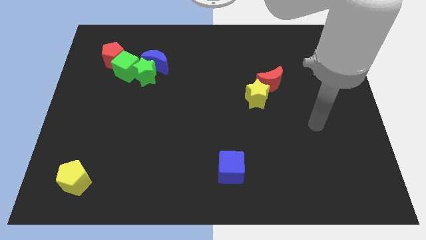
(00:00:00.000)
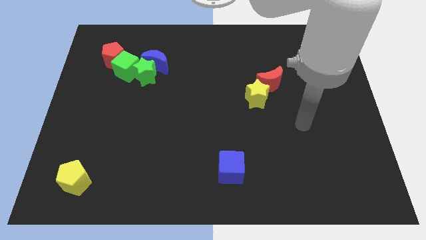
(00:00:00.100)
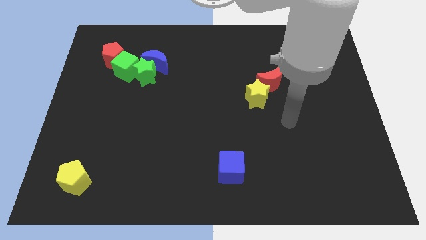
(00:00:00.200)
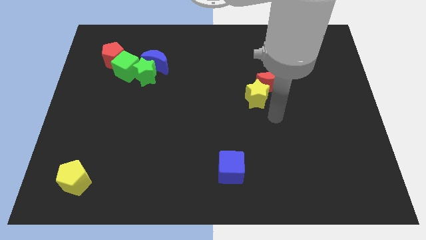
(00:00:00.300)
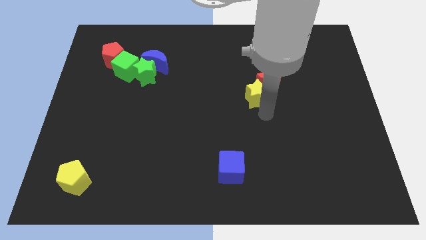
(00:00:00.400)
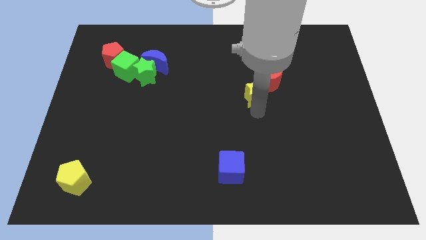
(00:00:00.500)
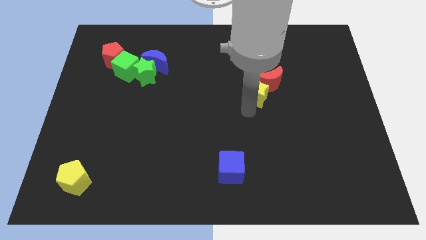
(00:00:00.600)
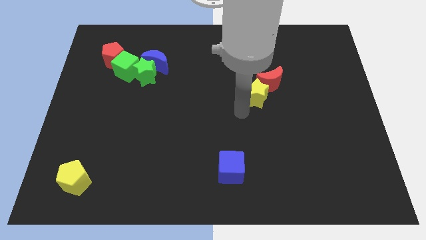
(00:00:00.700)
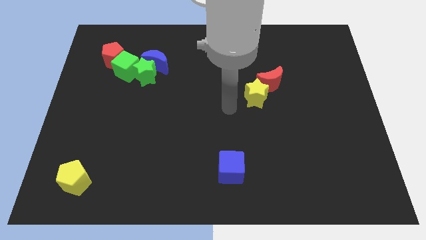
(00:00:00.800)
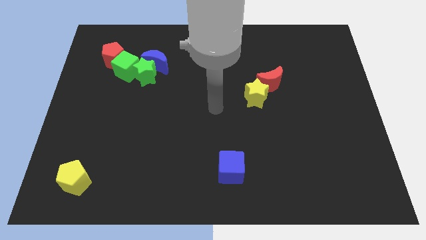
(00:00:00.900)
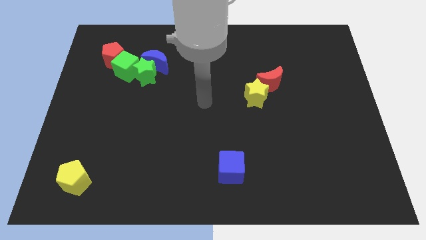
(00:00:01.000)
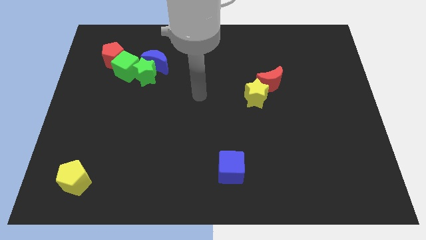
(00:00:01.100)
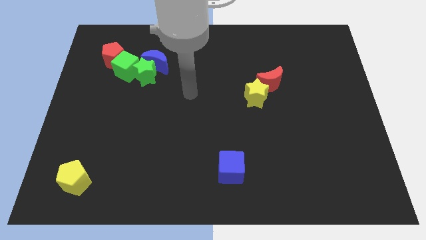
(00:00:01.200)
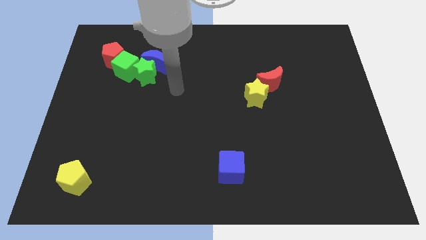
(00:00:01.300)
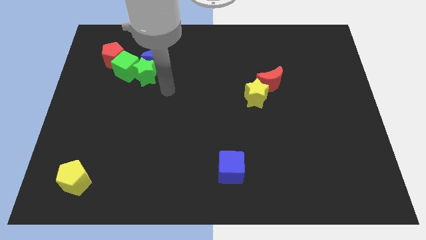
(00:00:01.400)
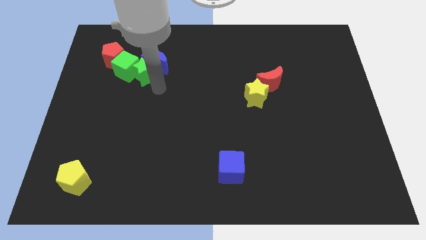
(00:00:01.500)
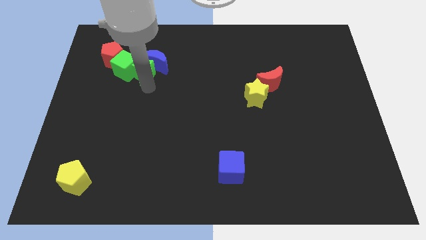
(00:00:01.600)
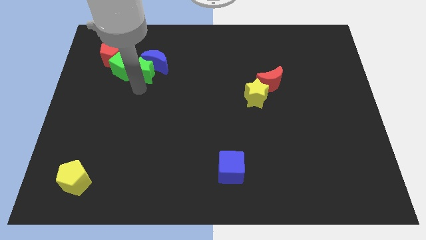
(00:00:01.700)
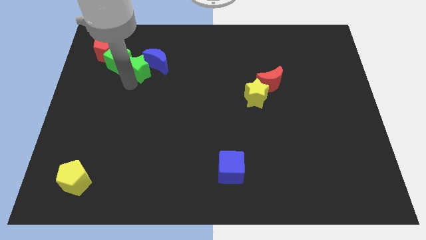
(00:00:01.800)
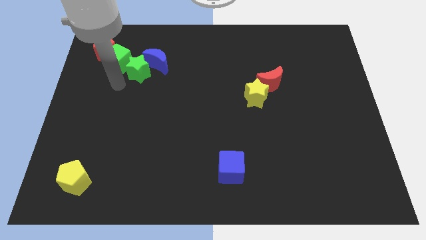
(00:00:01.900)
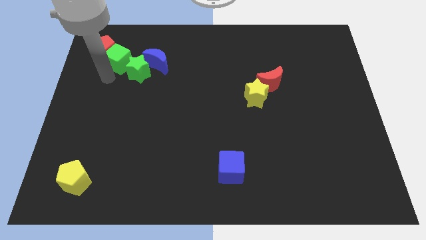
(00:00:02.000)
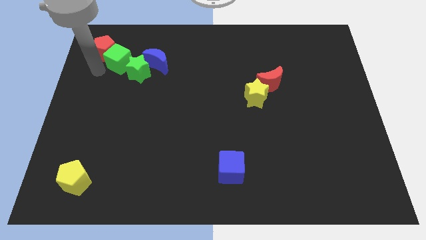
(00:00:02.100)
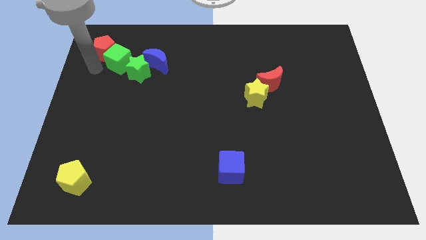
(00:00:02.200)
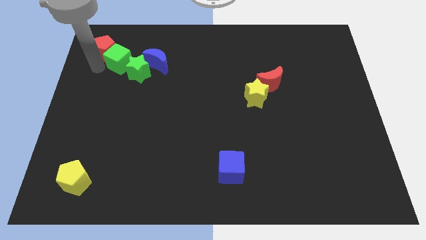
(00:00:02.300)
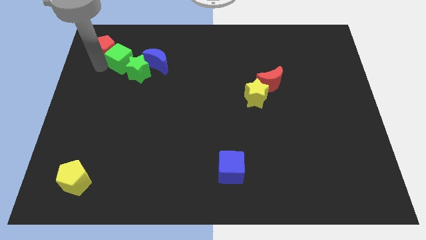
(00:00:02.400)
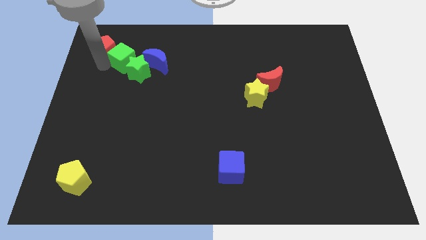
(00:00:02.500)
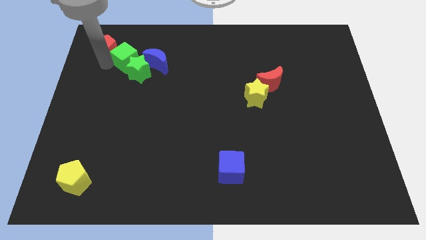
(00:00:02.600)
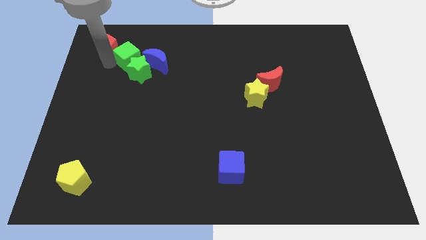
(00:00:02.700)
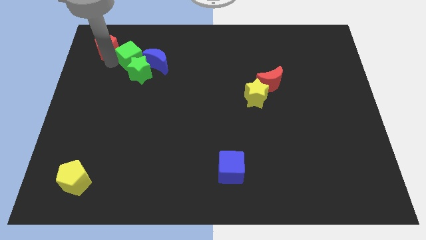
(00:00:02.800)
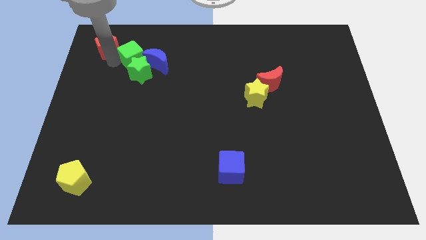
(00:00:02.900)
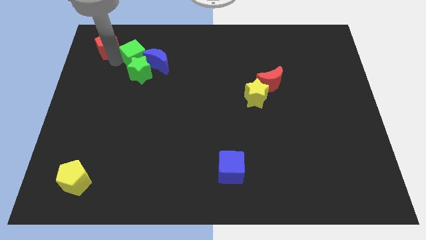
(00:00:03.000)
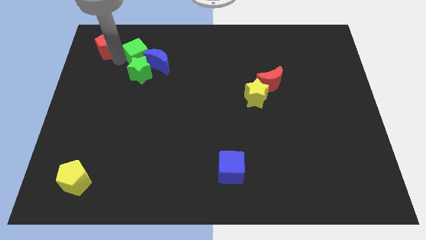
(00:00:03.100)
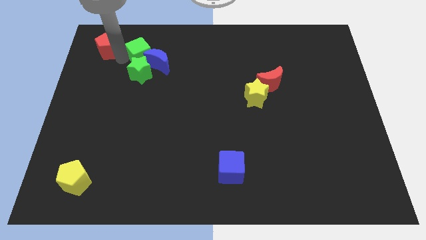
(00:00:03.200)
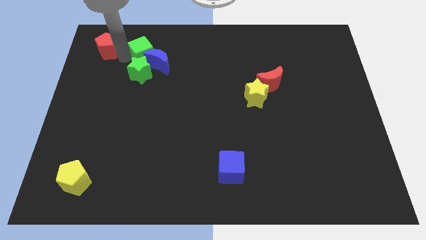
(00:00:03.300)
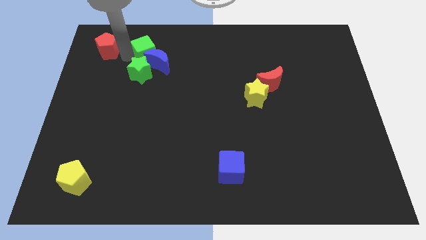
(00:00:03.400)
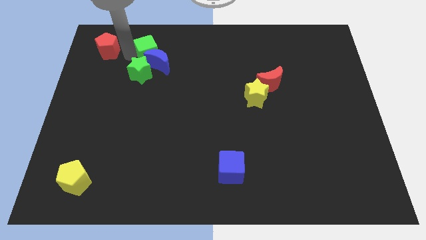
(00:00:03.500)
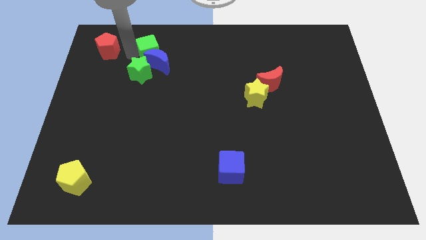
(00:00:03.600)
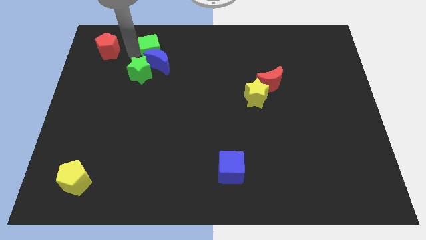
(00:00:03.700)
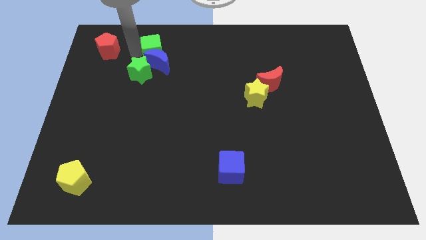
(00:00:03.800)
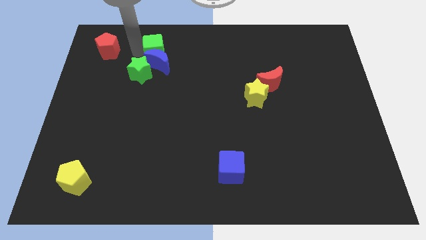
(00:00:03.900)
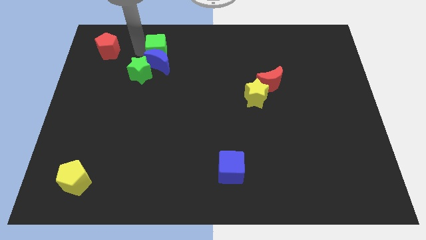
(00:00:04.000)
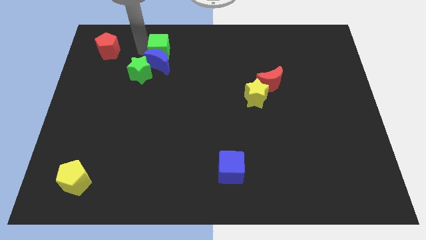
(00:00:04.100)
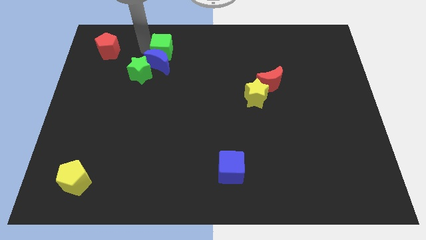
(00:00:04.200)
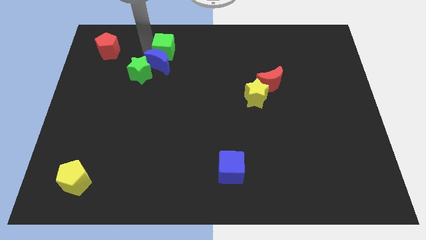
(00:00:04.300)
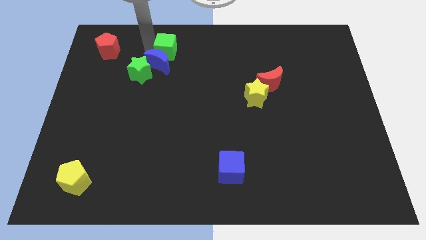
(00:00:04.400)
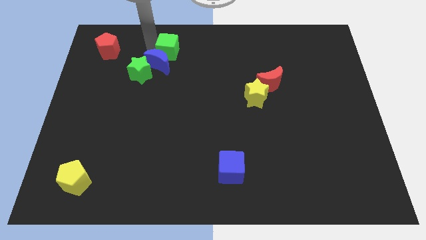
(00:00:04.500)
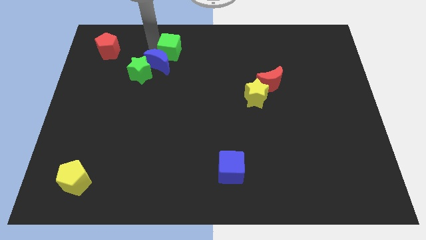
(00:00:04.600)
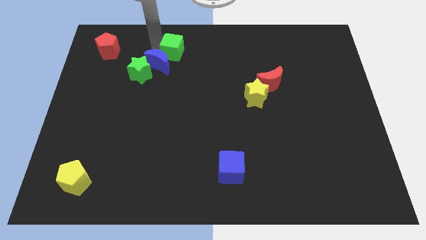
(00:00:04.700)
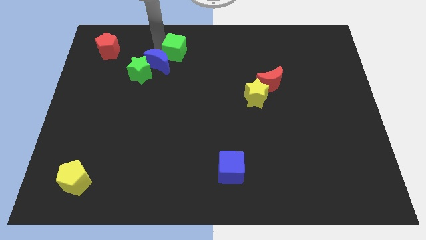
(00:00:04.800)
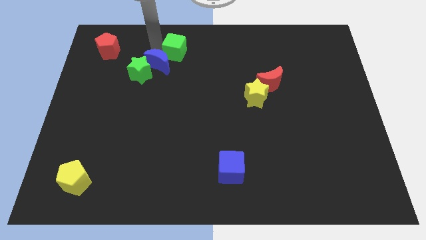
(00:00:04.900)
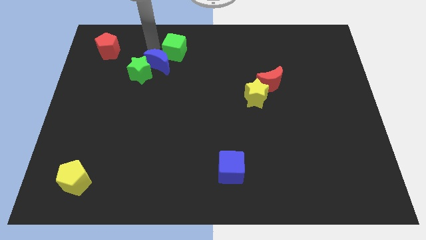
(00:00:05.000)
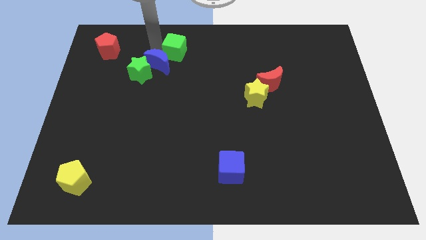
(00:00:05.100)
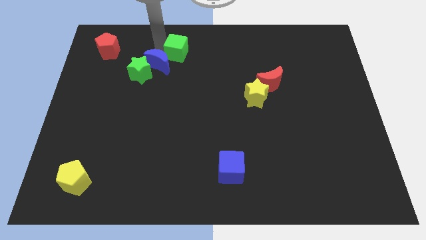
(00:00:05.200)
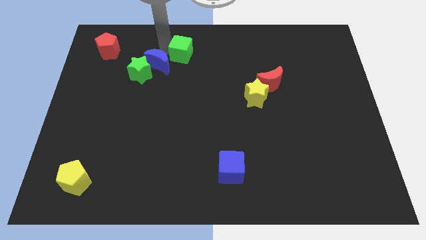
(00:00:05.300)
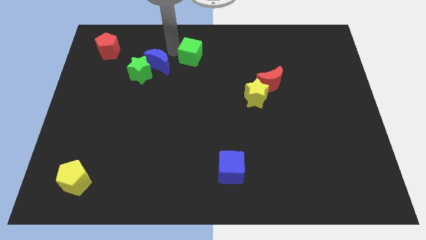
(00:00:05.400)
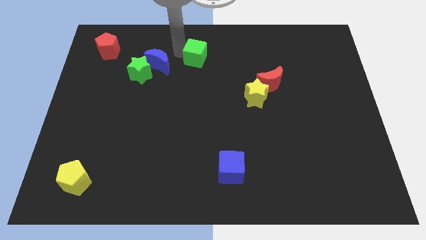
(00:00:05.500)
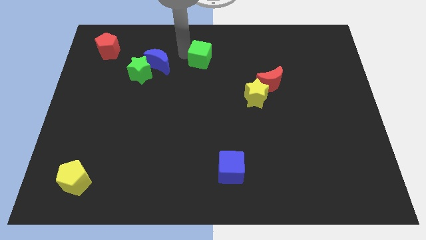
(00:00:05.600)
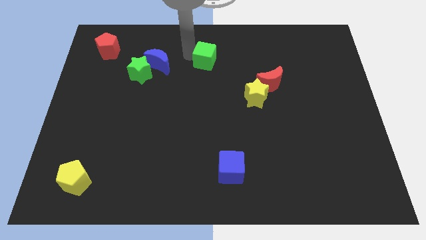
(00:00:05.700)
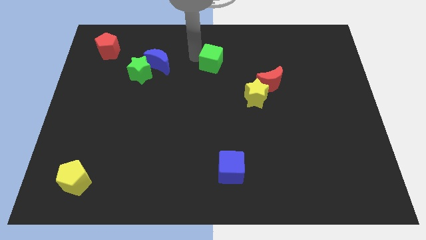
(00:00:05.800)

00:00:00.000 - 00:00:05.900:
move the green cube to the right

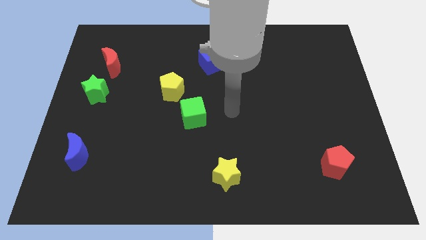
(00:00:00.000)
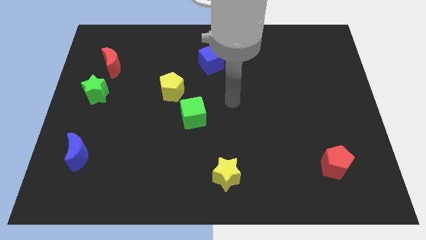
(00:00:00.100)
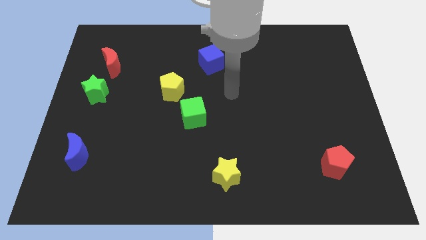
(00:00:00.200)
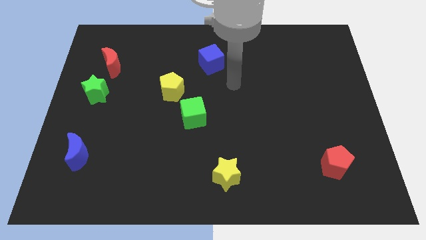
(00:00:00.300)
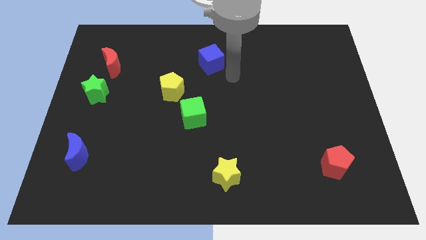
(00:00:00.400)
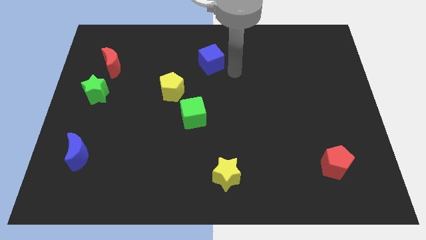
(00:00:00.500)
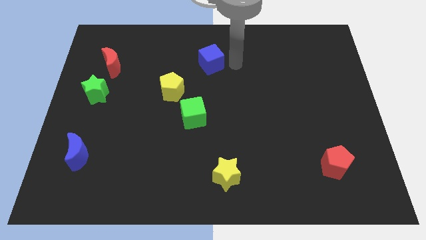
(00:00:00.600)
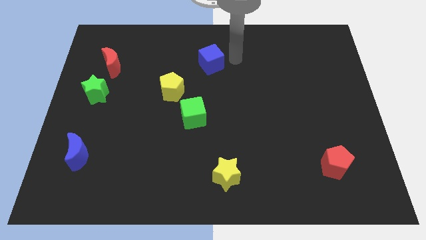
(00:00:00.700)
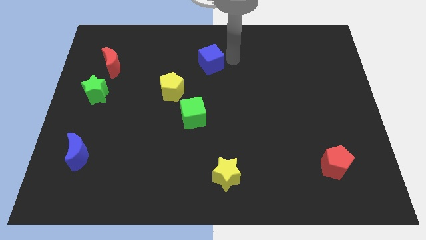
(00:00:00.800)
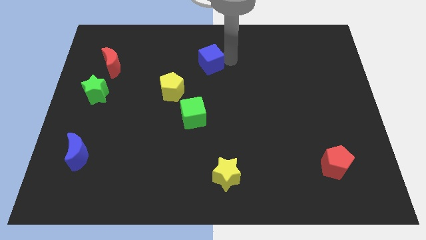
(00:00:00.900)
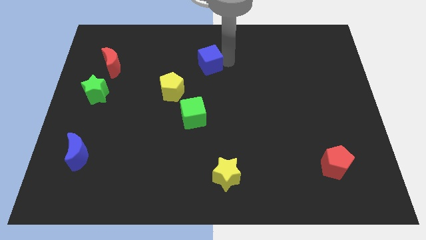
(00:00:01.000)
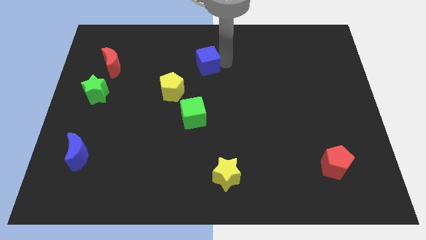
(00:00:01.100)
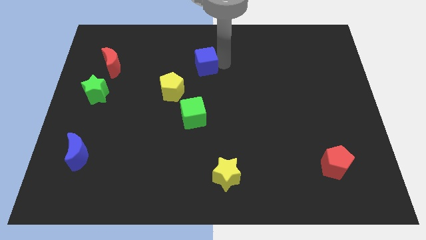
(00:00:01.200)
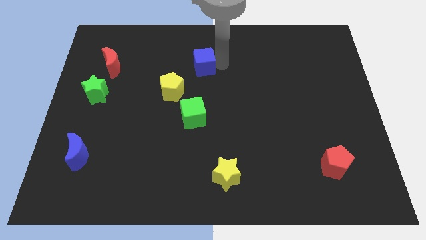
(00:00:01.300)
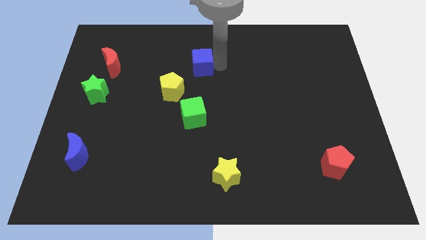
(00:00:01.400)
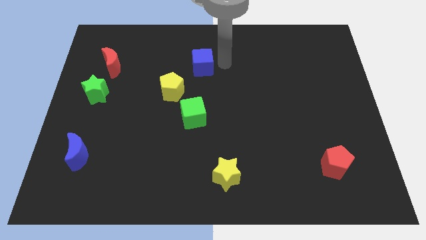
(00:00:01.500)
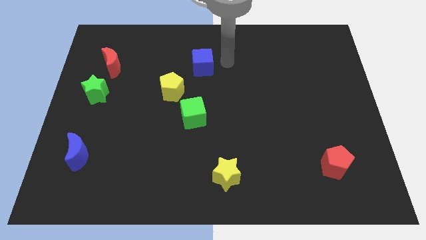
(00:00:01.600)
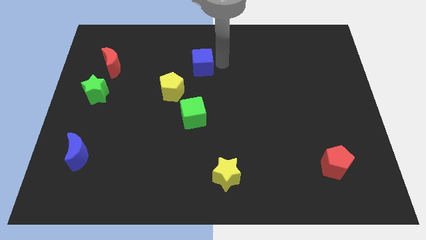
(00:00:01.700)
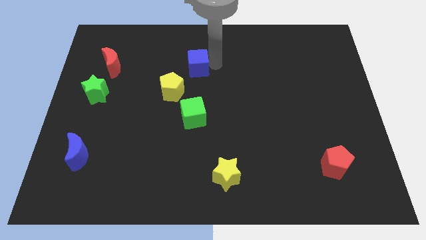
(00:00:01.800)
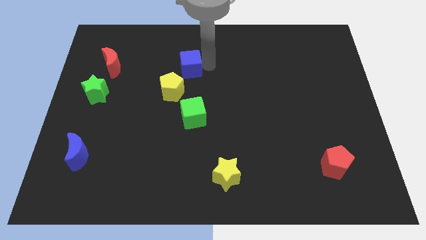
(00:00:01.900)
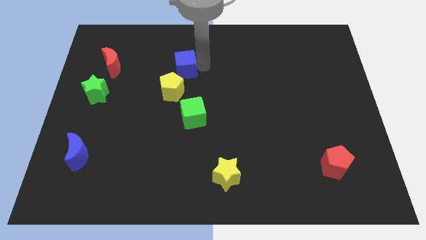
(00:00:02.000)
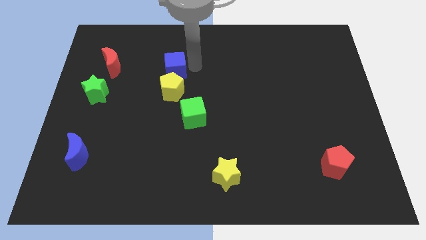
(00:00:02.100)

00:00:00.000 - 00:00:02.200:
slightly move the blue cube down and to the left
